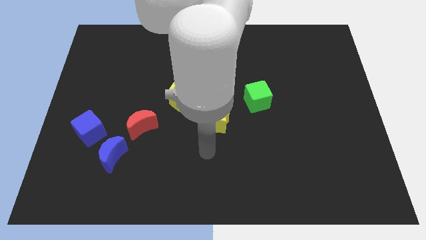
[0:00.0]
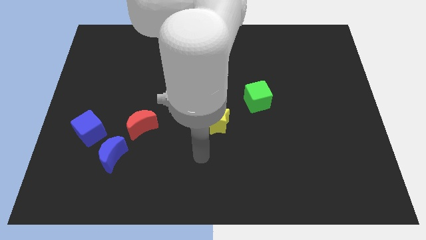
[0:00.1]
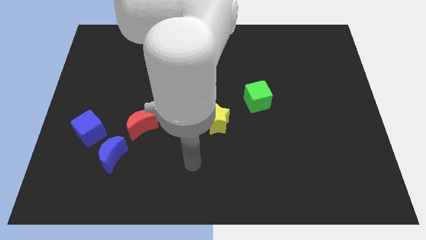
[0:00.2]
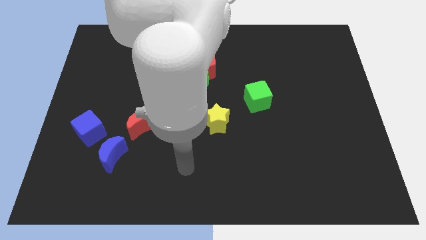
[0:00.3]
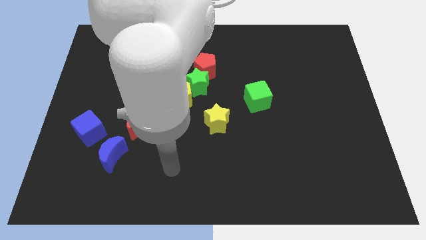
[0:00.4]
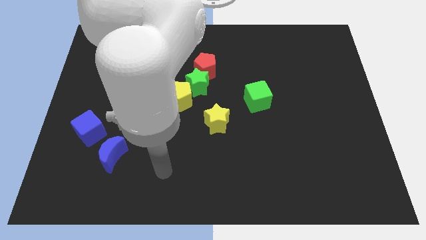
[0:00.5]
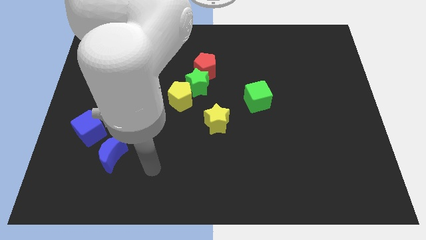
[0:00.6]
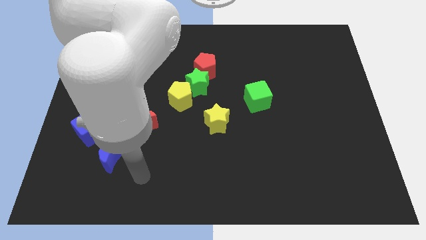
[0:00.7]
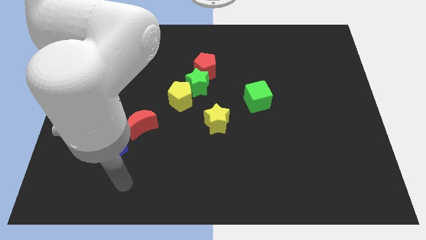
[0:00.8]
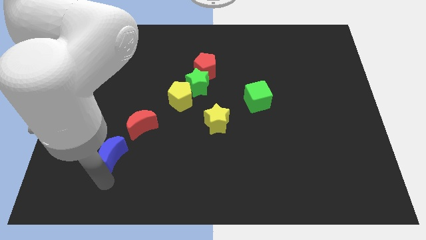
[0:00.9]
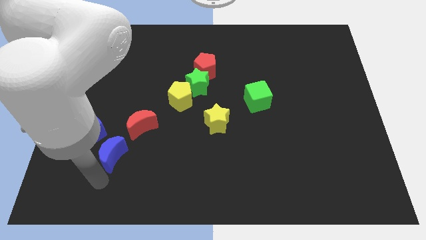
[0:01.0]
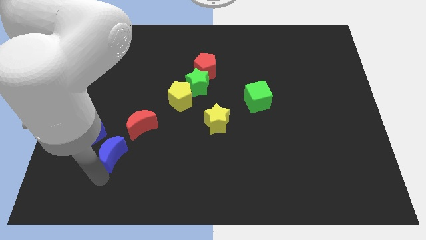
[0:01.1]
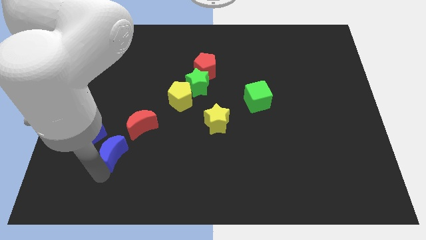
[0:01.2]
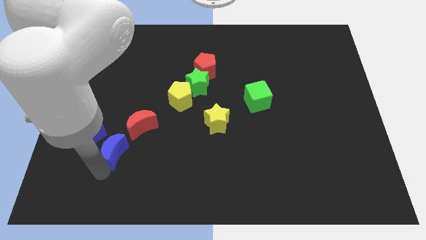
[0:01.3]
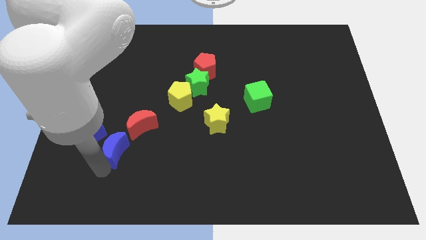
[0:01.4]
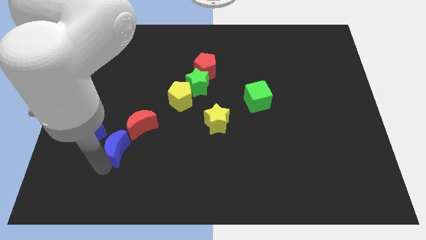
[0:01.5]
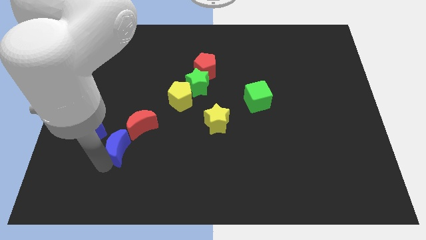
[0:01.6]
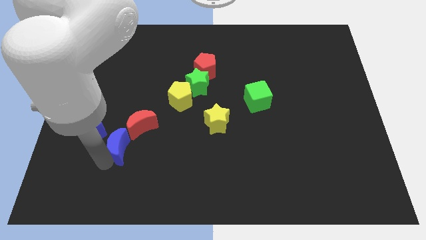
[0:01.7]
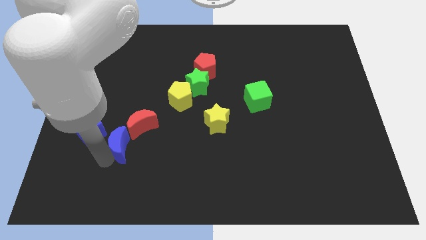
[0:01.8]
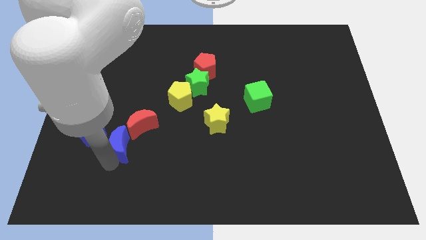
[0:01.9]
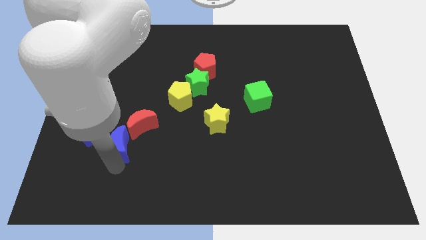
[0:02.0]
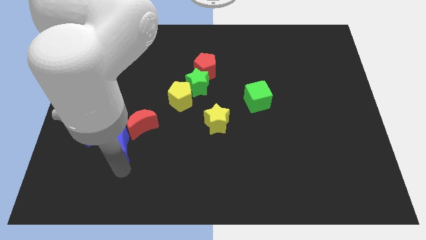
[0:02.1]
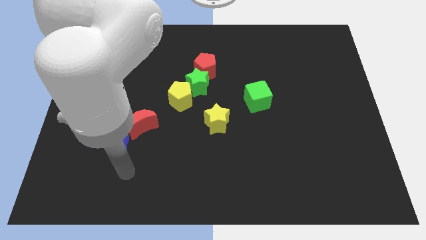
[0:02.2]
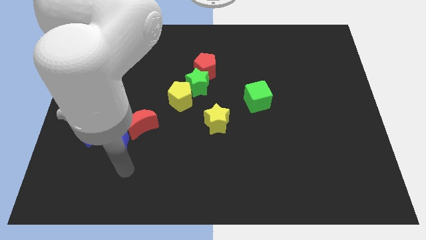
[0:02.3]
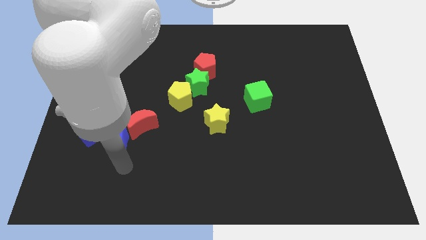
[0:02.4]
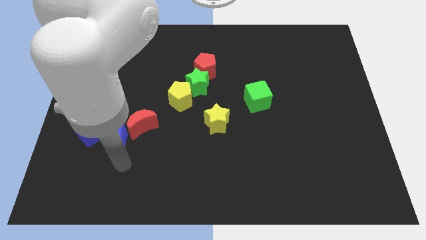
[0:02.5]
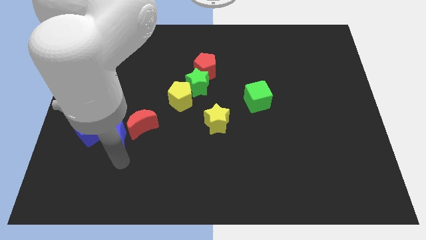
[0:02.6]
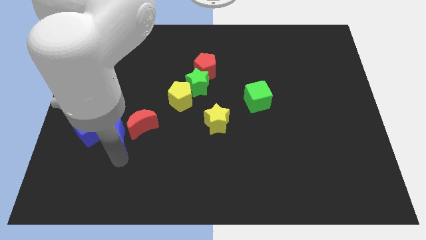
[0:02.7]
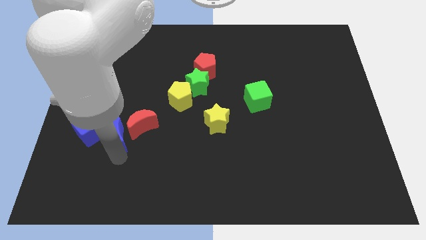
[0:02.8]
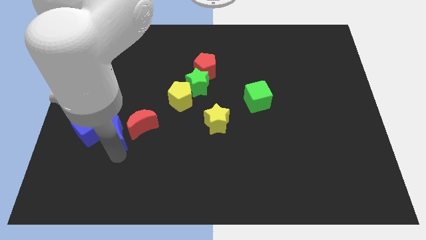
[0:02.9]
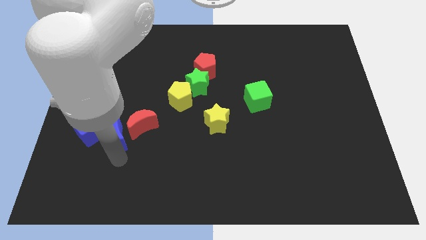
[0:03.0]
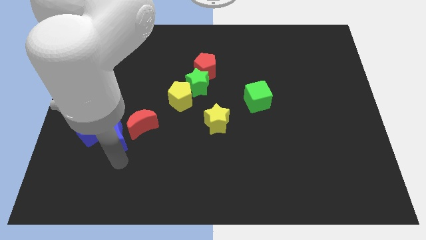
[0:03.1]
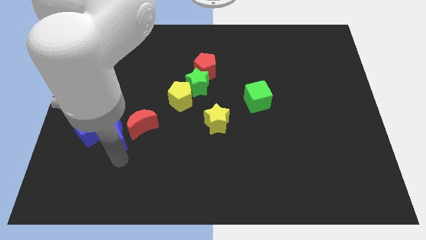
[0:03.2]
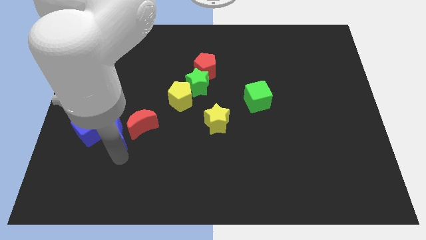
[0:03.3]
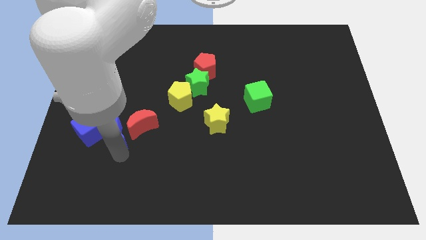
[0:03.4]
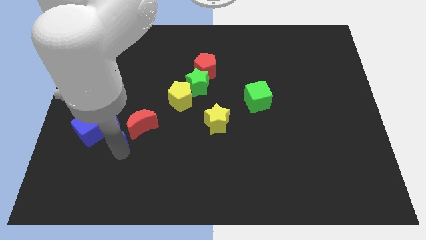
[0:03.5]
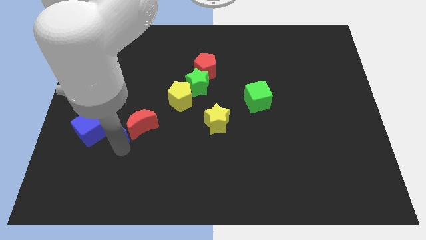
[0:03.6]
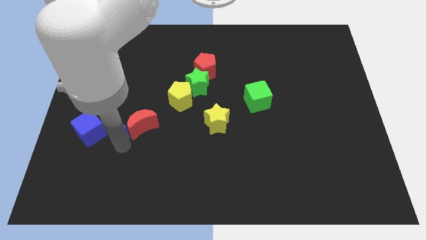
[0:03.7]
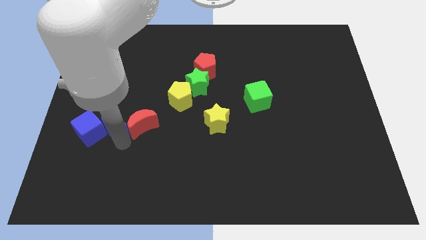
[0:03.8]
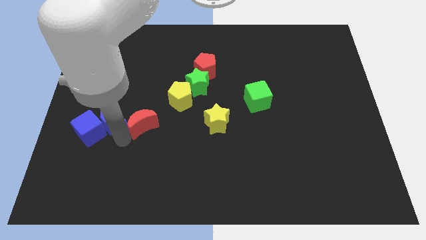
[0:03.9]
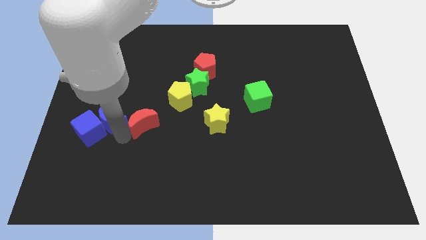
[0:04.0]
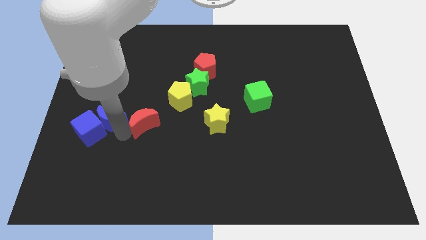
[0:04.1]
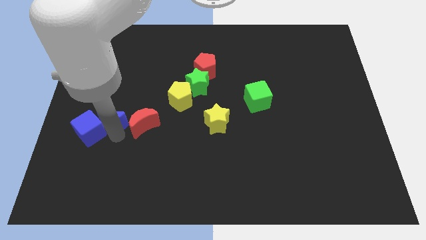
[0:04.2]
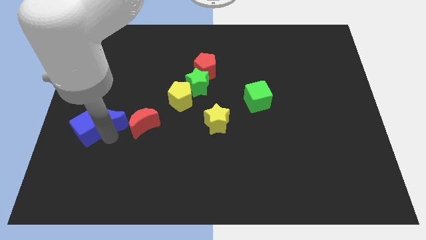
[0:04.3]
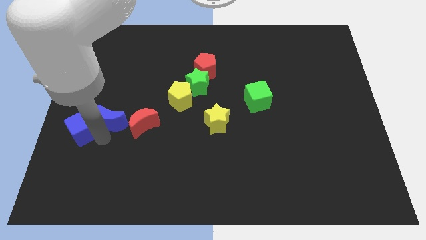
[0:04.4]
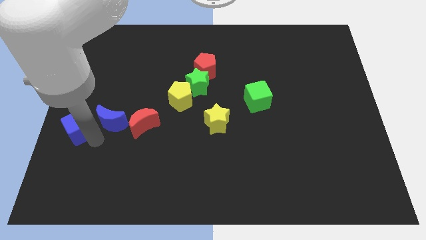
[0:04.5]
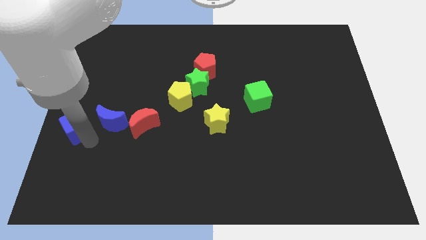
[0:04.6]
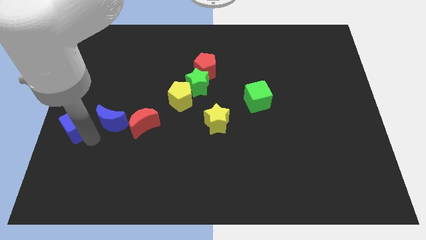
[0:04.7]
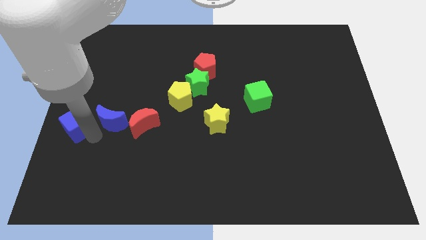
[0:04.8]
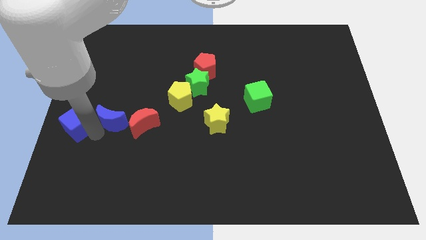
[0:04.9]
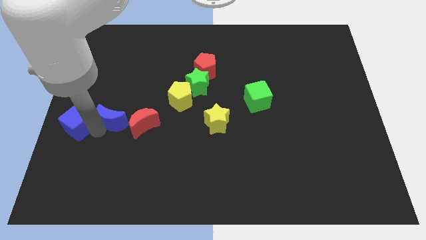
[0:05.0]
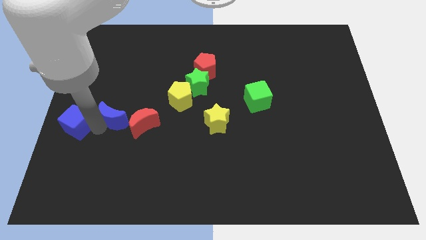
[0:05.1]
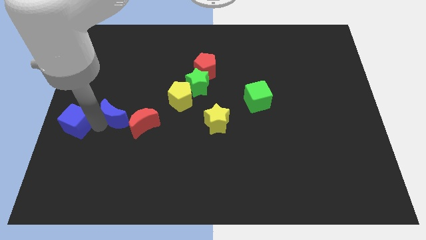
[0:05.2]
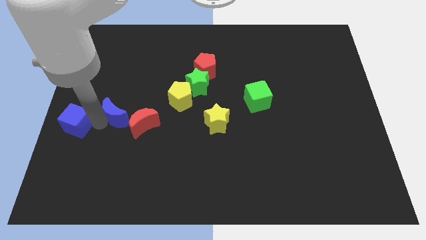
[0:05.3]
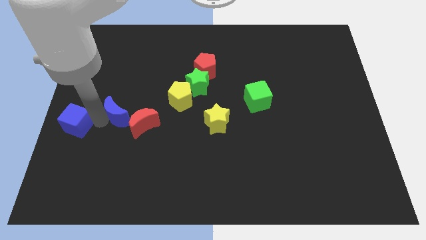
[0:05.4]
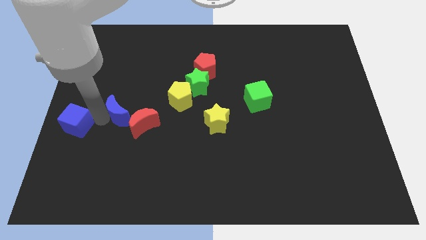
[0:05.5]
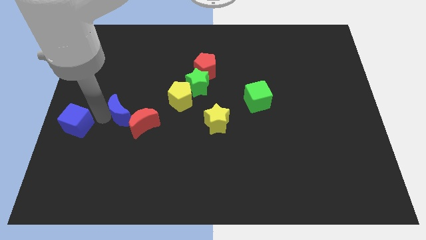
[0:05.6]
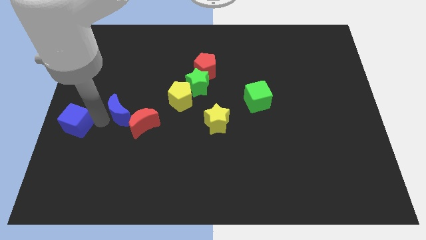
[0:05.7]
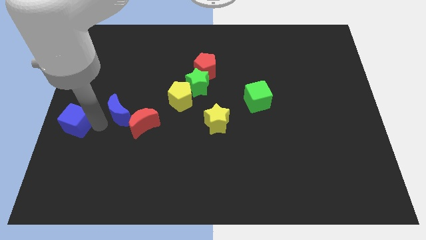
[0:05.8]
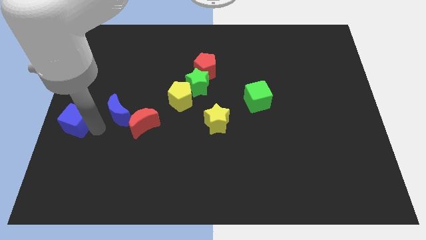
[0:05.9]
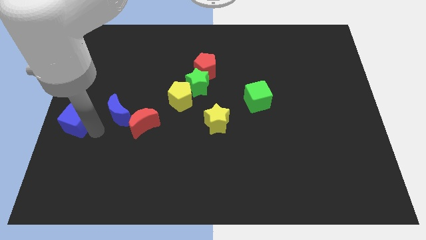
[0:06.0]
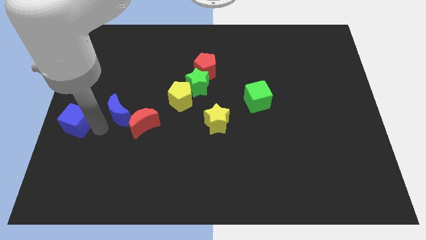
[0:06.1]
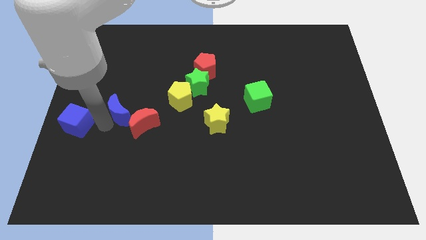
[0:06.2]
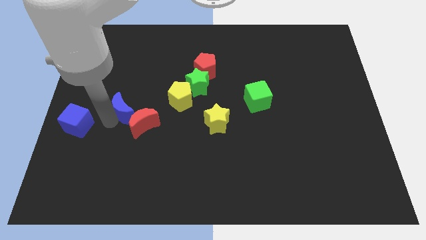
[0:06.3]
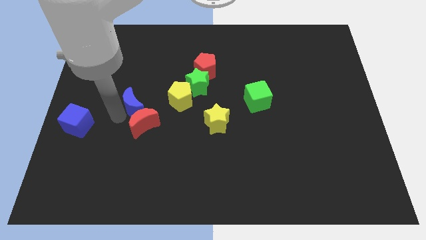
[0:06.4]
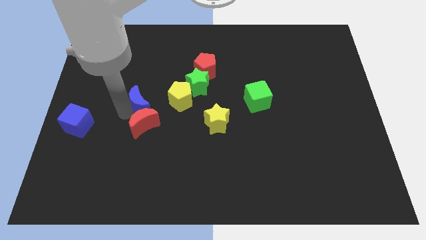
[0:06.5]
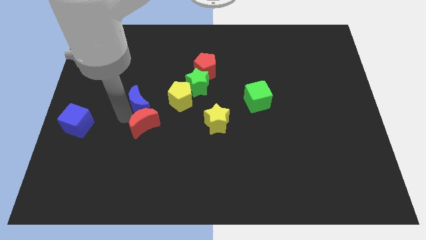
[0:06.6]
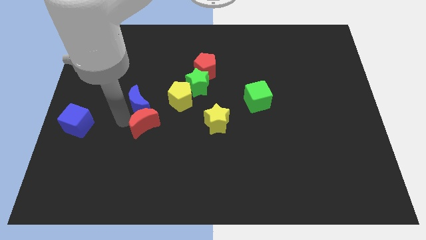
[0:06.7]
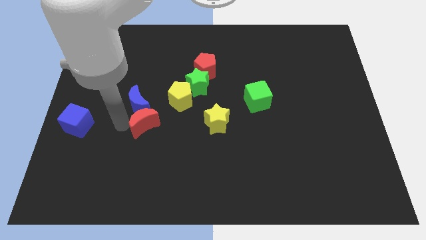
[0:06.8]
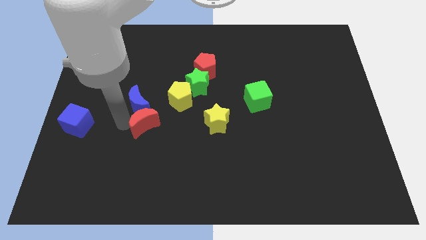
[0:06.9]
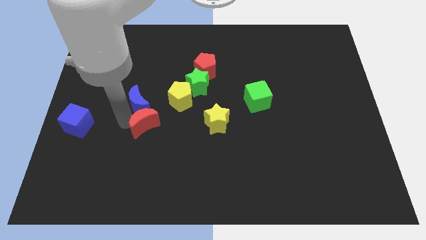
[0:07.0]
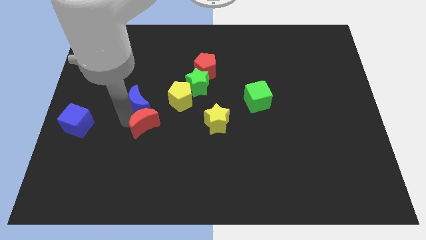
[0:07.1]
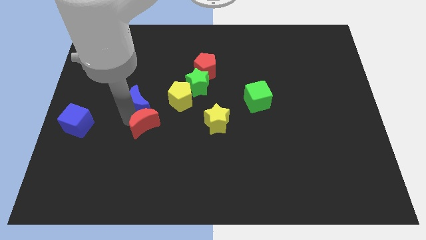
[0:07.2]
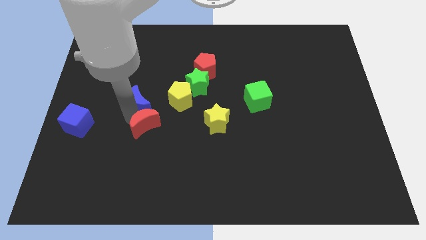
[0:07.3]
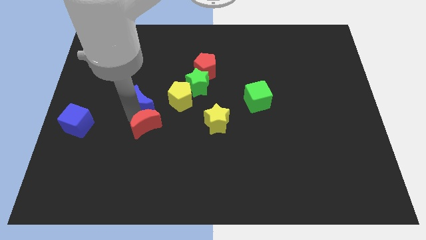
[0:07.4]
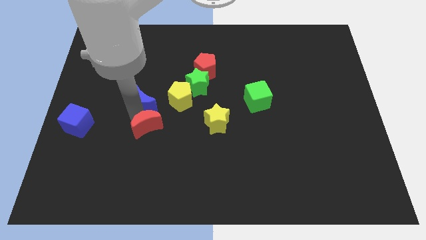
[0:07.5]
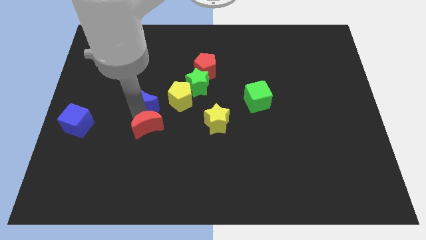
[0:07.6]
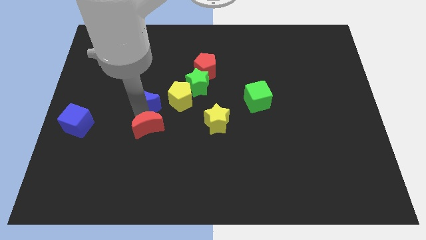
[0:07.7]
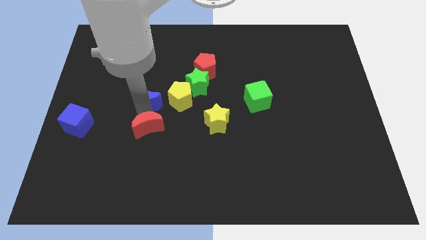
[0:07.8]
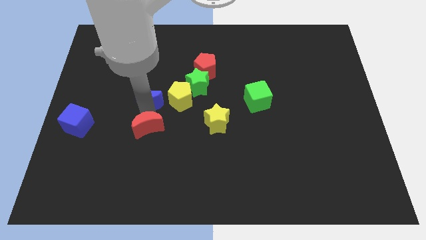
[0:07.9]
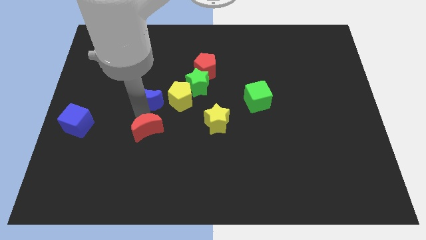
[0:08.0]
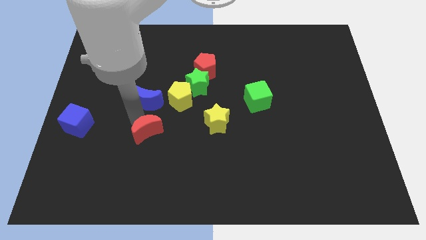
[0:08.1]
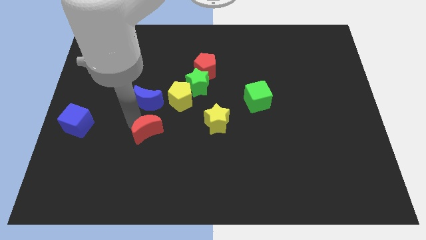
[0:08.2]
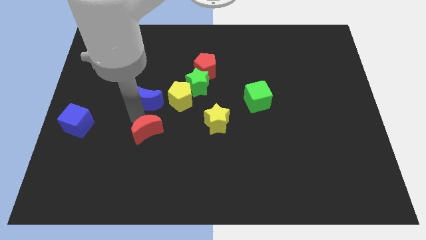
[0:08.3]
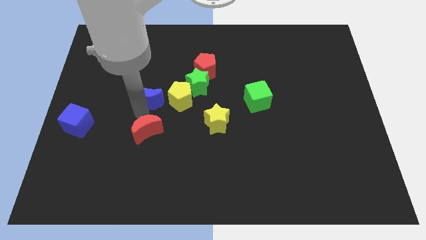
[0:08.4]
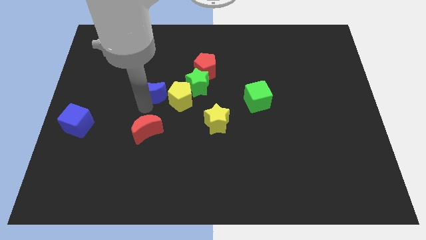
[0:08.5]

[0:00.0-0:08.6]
slide the blue moon to the top left side of the yellow pentagon
